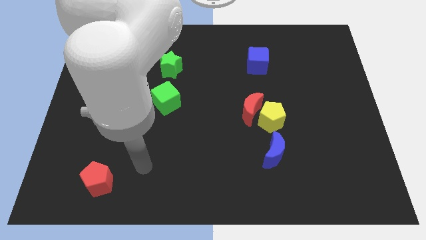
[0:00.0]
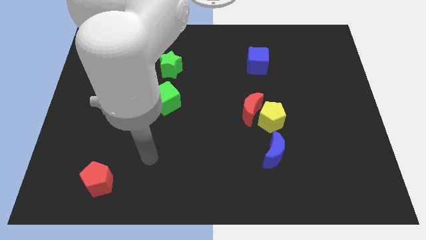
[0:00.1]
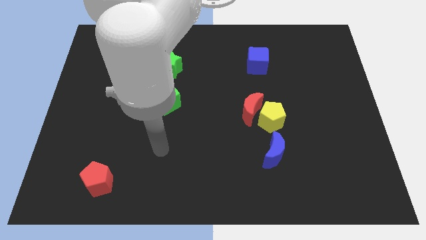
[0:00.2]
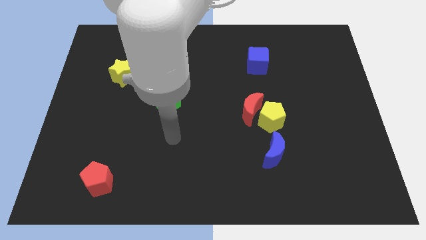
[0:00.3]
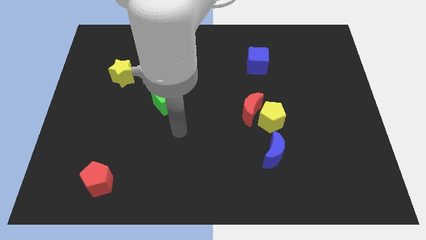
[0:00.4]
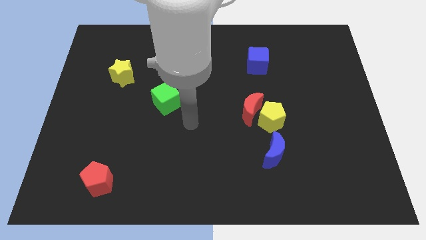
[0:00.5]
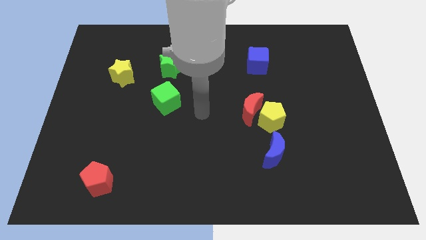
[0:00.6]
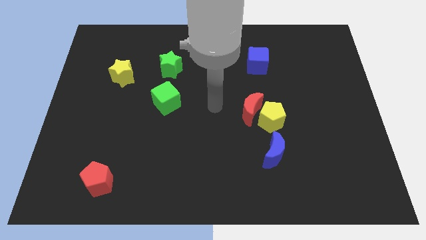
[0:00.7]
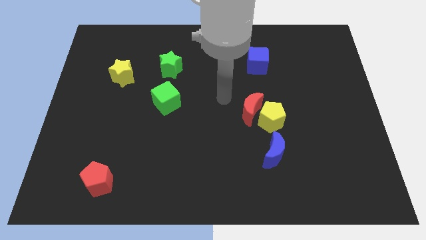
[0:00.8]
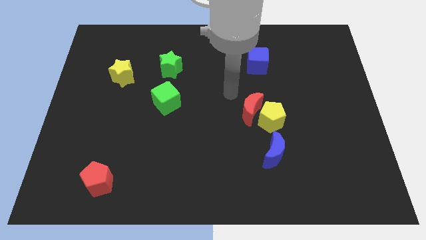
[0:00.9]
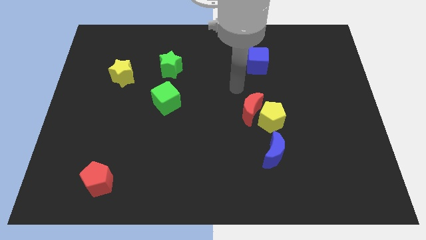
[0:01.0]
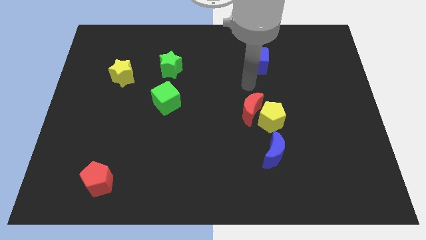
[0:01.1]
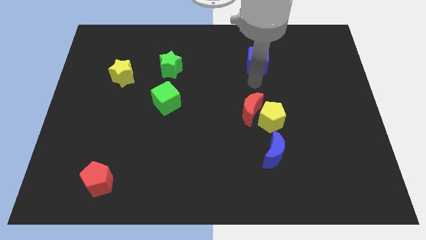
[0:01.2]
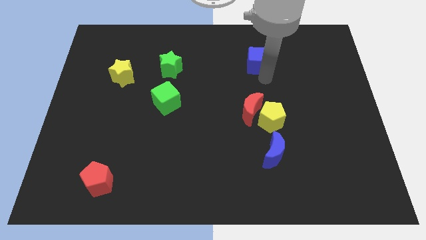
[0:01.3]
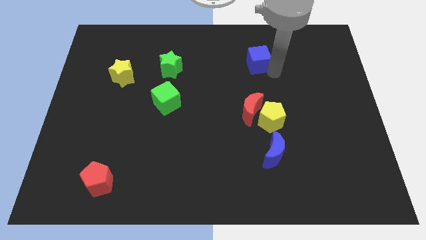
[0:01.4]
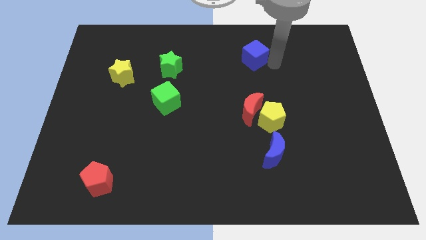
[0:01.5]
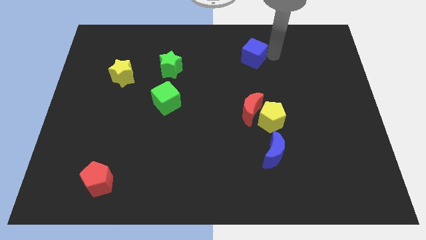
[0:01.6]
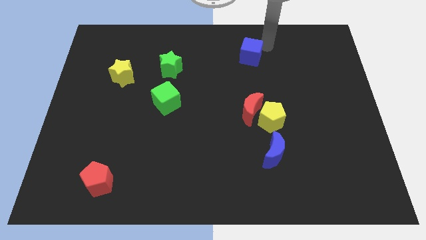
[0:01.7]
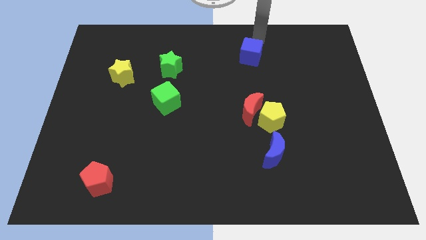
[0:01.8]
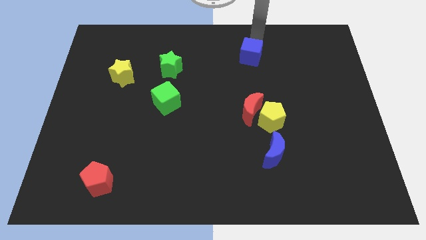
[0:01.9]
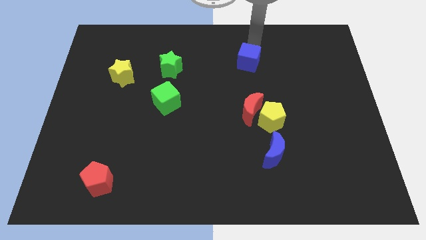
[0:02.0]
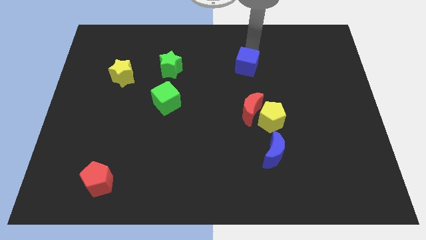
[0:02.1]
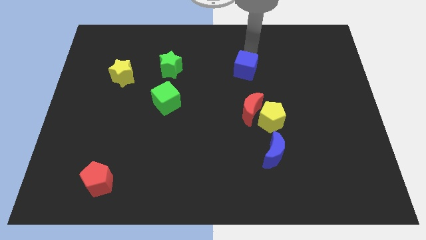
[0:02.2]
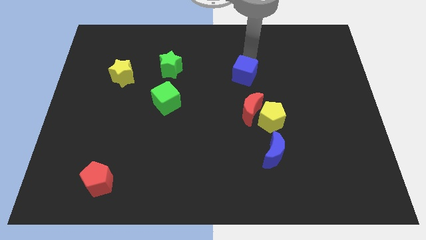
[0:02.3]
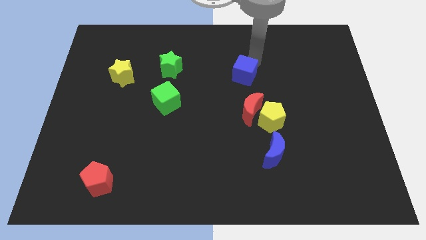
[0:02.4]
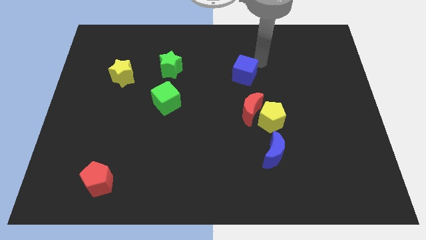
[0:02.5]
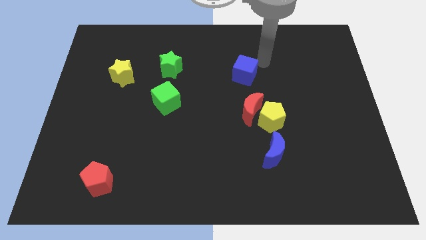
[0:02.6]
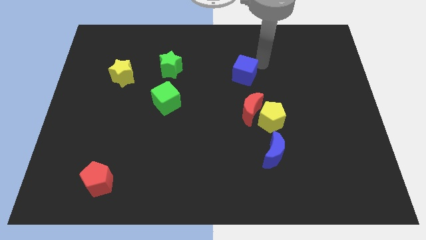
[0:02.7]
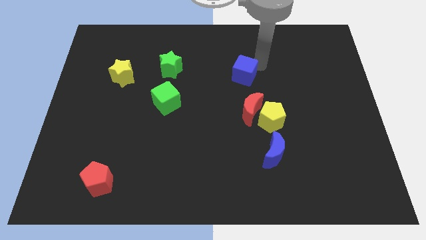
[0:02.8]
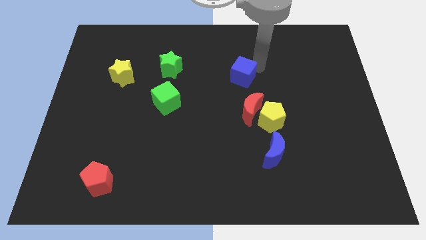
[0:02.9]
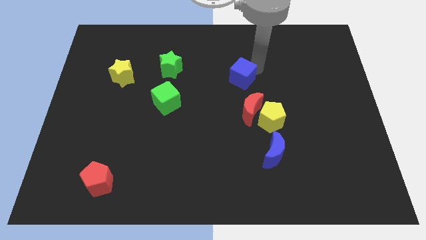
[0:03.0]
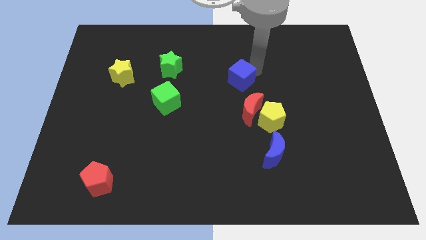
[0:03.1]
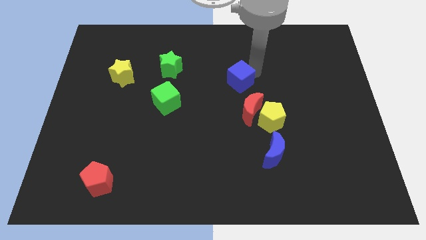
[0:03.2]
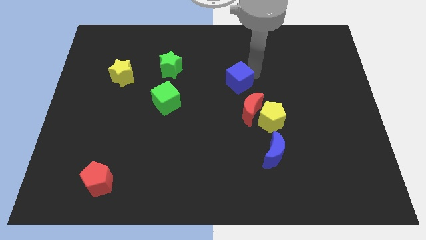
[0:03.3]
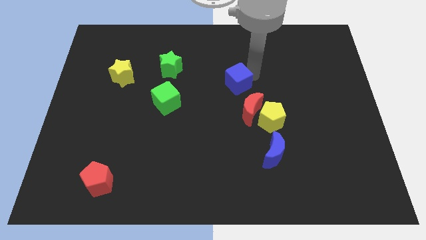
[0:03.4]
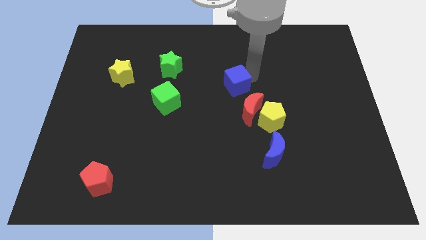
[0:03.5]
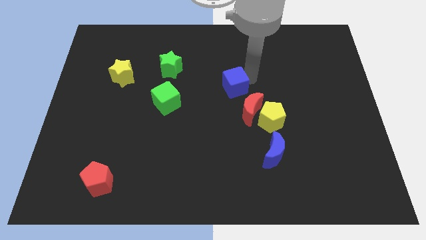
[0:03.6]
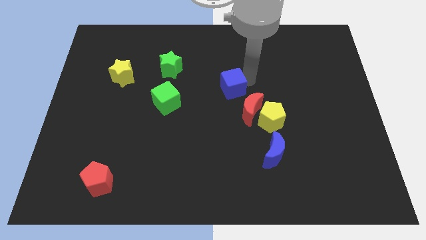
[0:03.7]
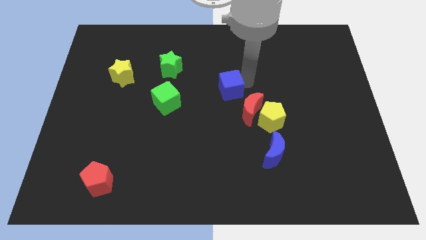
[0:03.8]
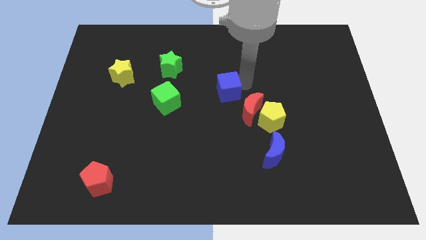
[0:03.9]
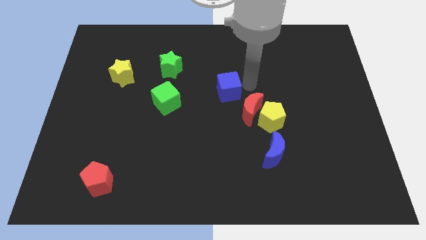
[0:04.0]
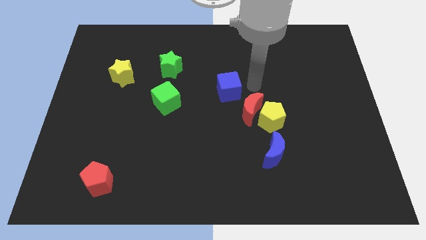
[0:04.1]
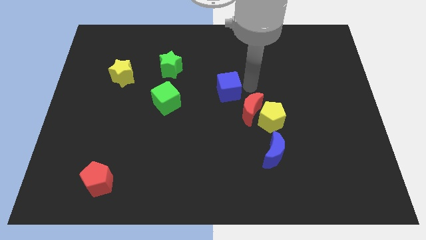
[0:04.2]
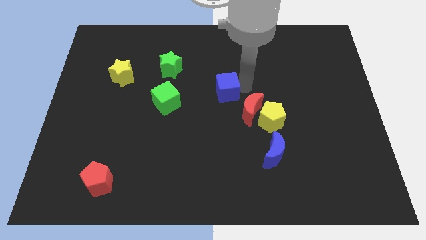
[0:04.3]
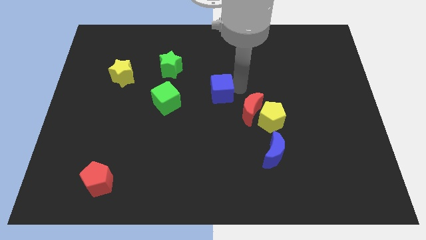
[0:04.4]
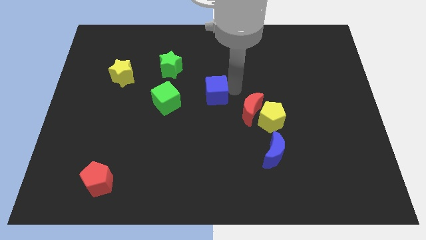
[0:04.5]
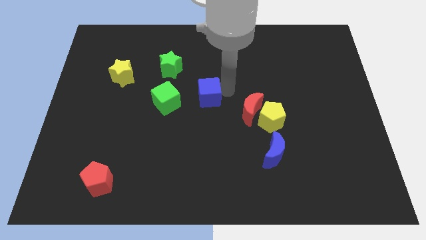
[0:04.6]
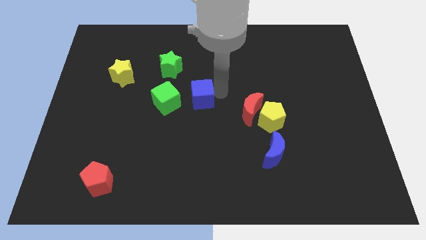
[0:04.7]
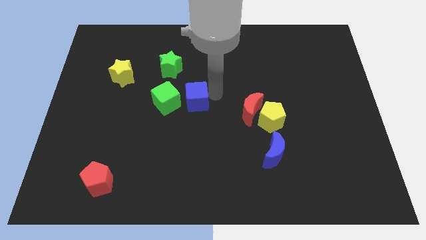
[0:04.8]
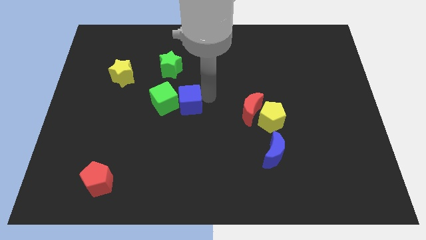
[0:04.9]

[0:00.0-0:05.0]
slide the blue cube towards the green cube

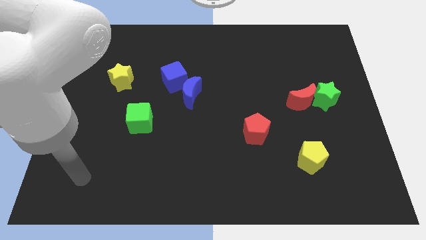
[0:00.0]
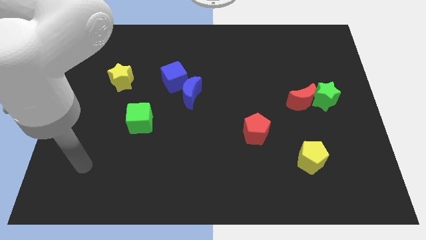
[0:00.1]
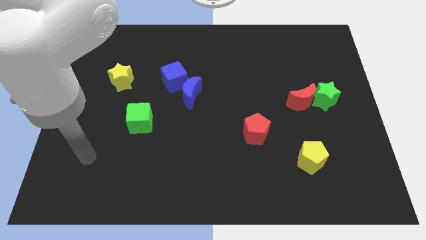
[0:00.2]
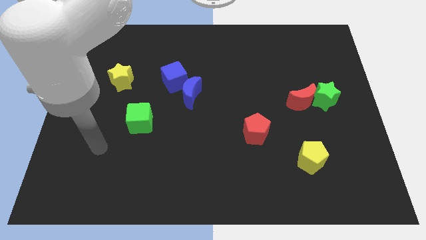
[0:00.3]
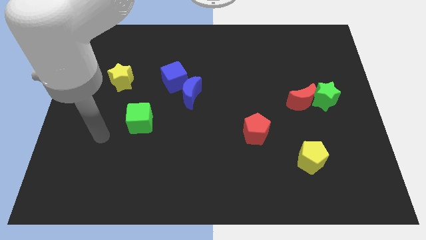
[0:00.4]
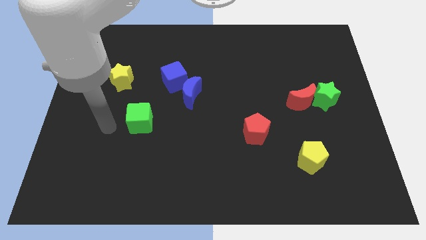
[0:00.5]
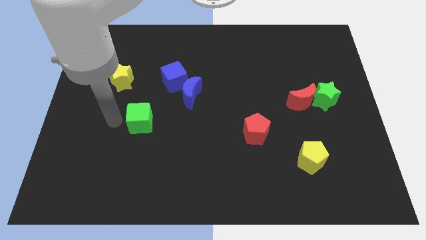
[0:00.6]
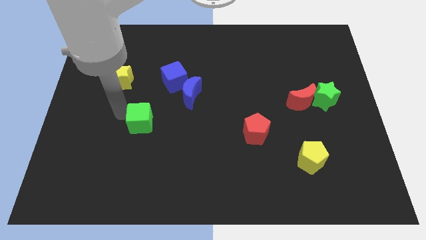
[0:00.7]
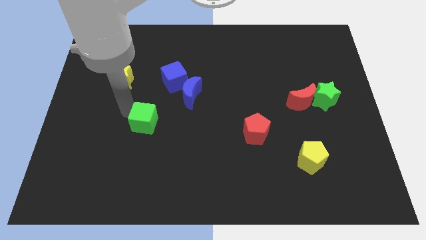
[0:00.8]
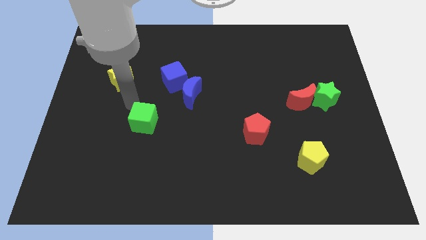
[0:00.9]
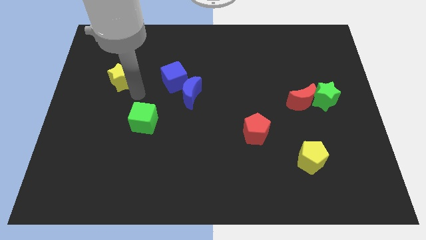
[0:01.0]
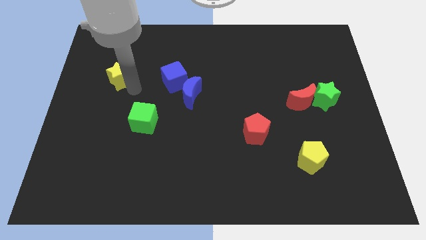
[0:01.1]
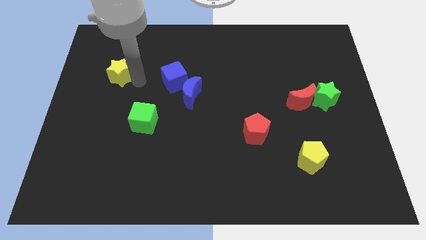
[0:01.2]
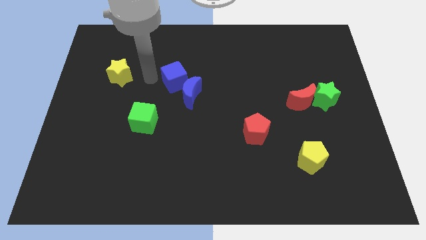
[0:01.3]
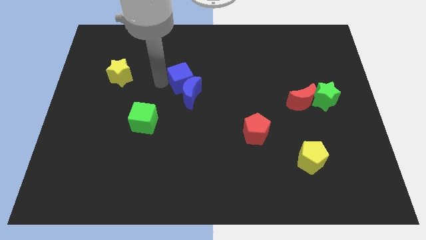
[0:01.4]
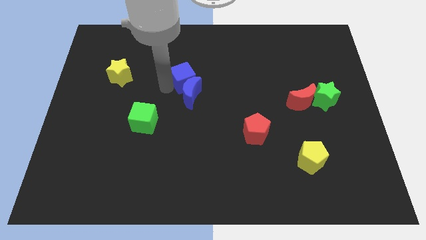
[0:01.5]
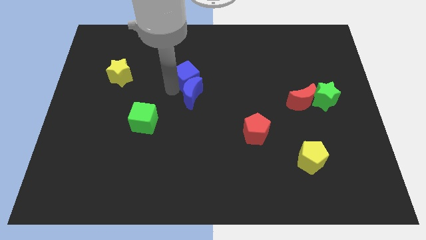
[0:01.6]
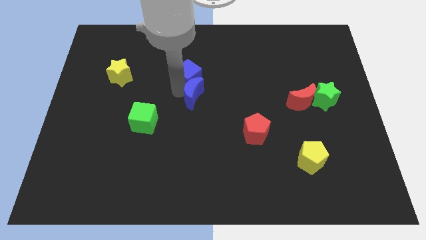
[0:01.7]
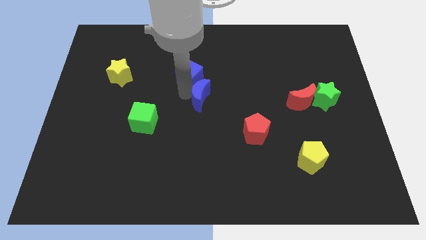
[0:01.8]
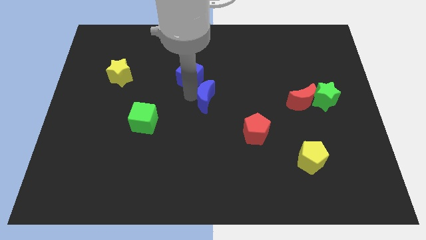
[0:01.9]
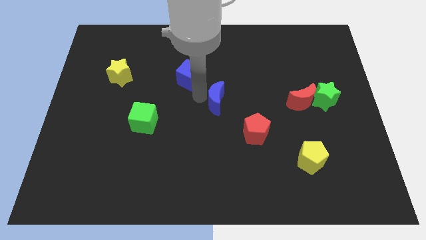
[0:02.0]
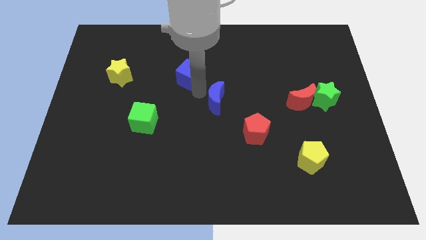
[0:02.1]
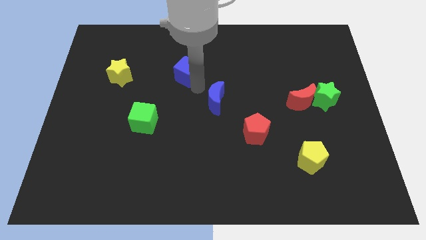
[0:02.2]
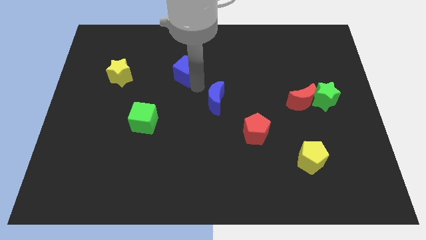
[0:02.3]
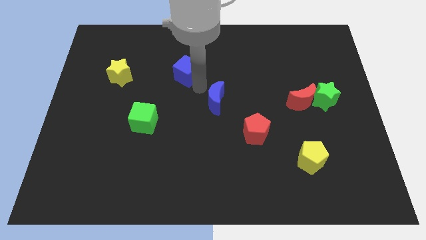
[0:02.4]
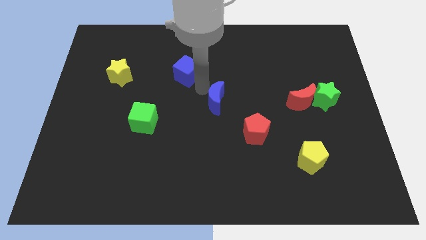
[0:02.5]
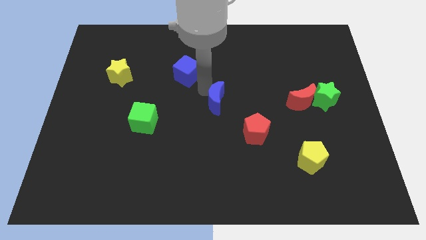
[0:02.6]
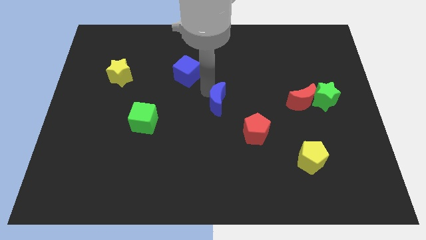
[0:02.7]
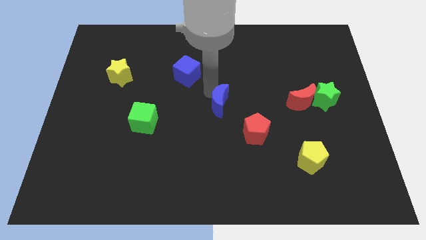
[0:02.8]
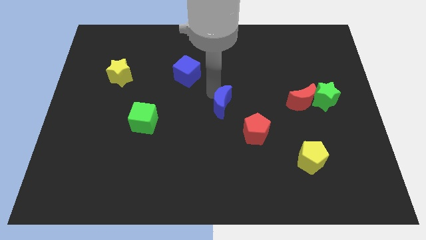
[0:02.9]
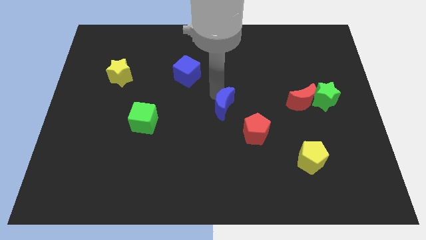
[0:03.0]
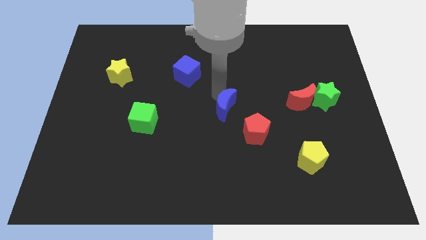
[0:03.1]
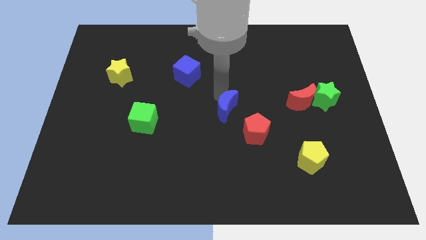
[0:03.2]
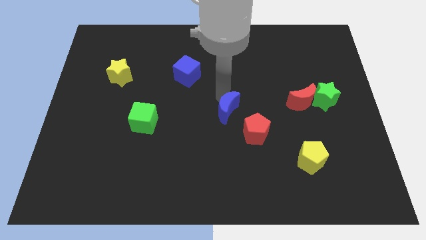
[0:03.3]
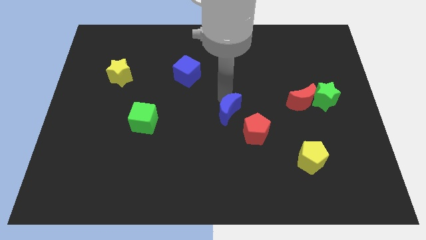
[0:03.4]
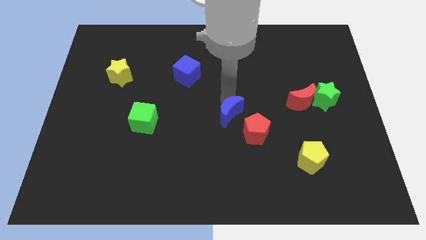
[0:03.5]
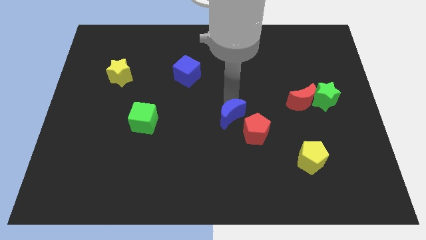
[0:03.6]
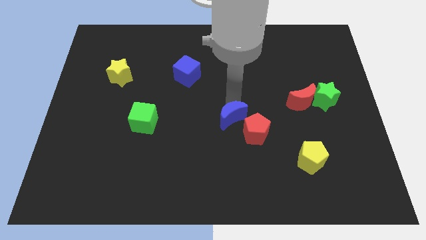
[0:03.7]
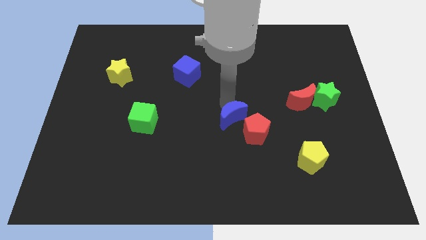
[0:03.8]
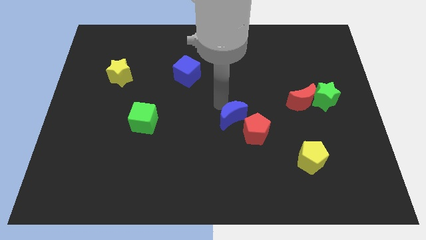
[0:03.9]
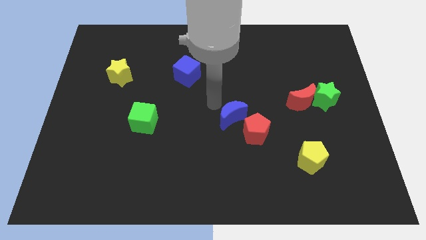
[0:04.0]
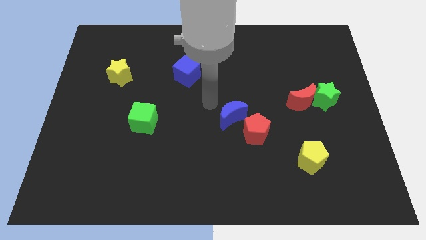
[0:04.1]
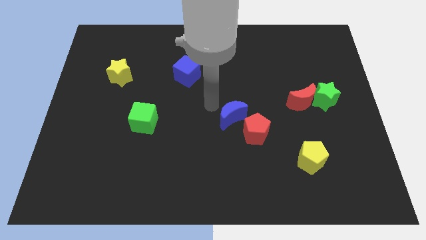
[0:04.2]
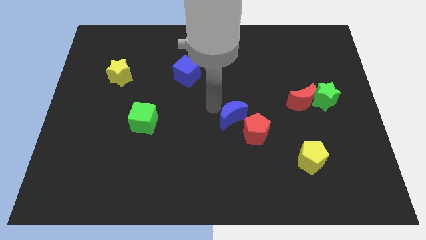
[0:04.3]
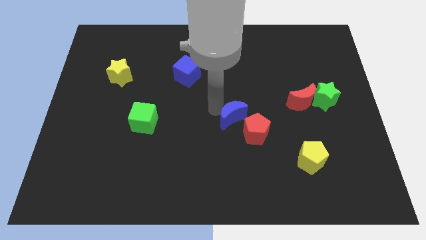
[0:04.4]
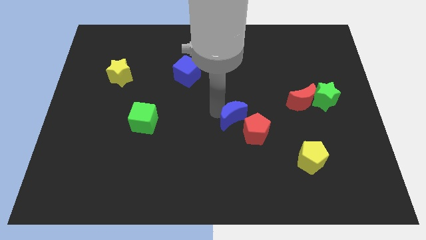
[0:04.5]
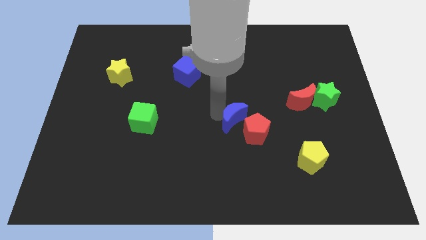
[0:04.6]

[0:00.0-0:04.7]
put the blue moon to the red pentagon
